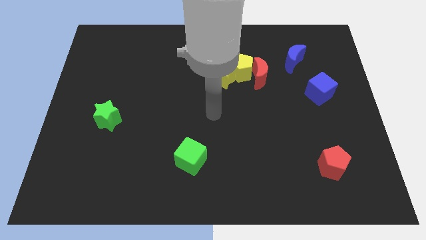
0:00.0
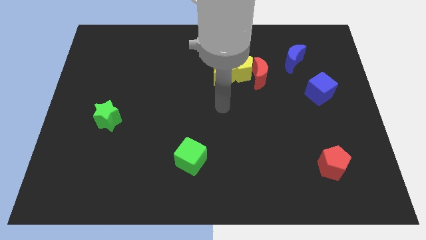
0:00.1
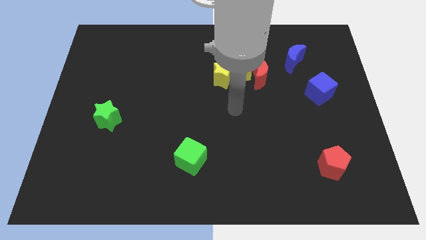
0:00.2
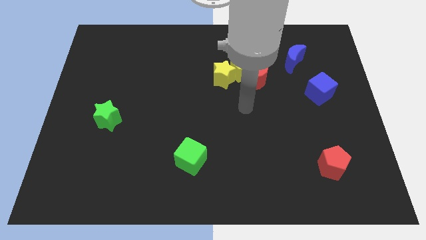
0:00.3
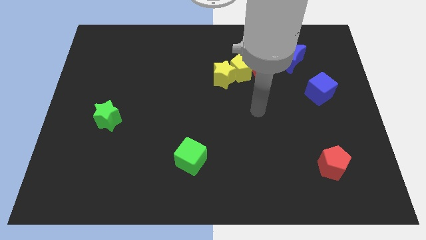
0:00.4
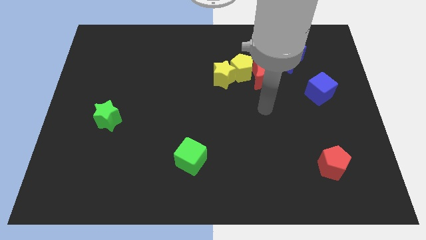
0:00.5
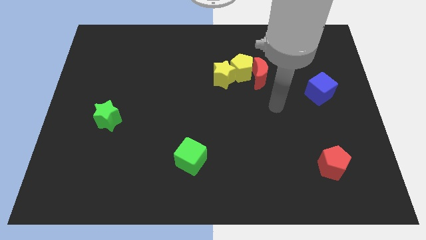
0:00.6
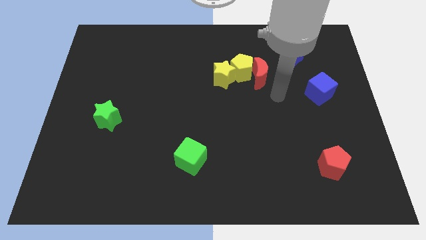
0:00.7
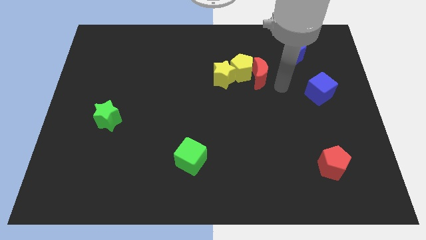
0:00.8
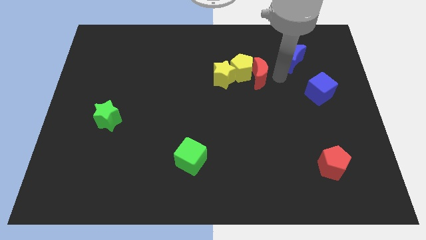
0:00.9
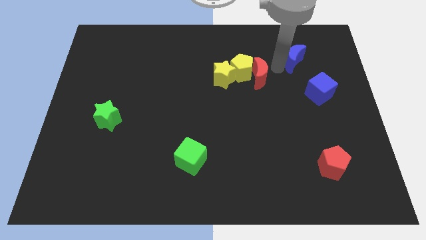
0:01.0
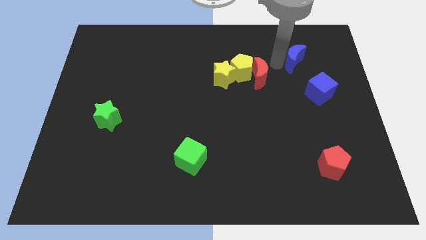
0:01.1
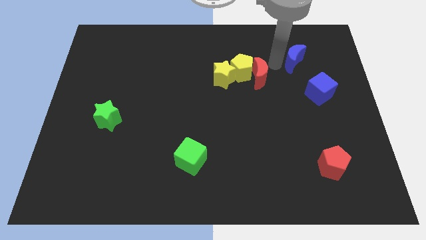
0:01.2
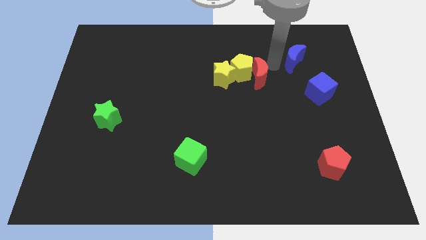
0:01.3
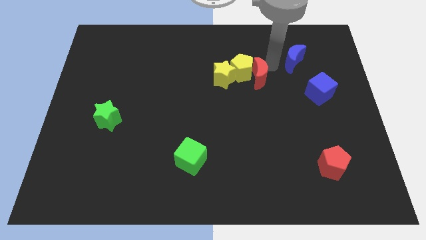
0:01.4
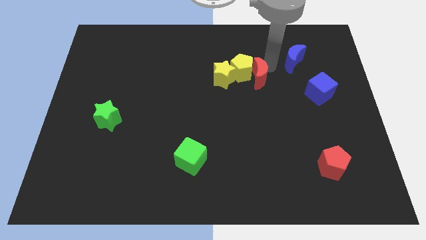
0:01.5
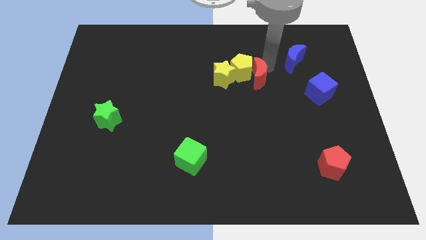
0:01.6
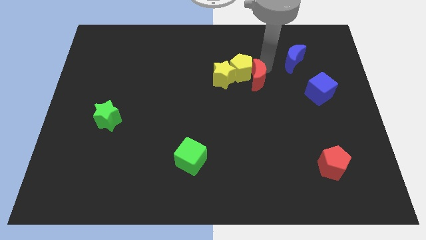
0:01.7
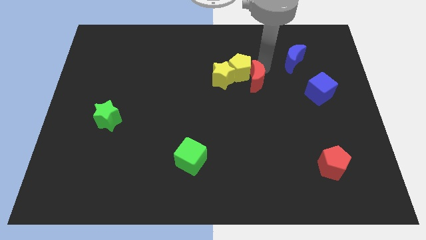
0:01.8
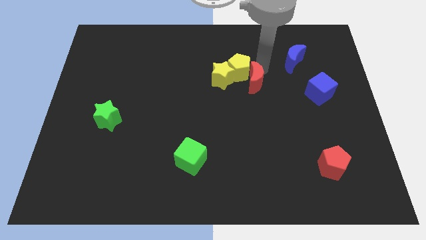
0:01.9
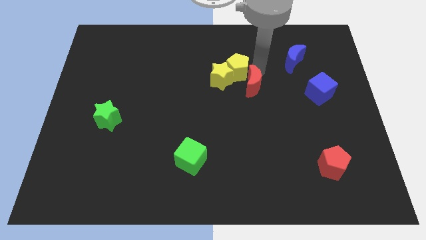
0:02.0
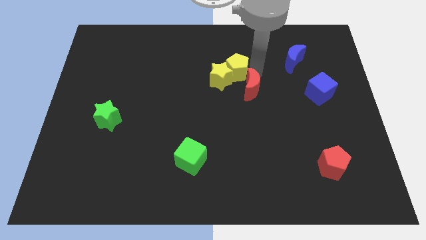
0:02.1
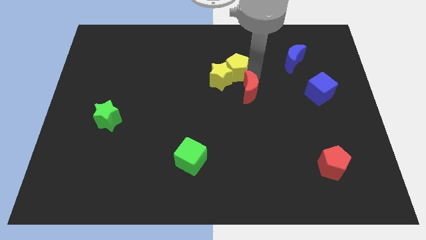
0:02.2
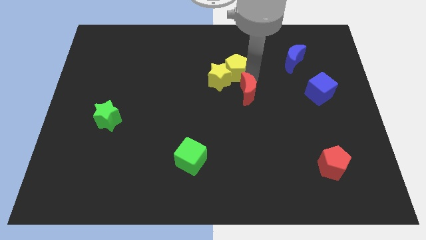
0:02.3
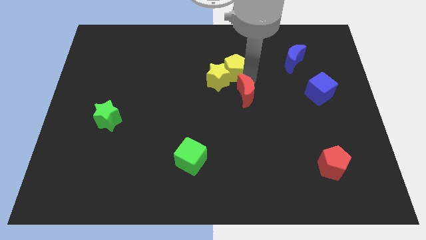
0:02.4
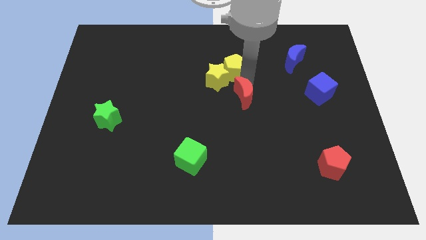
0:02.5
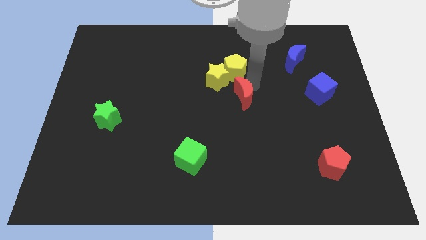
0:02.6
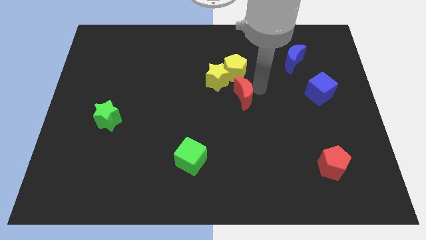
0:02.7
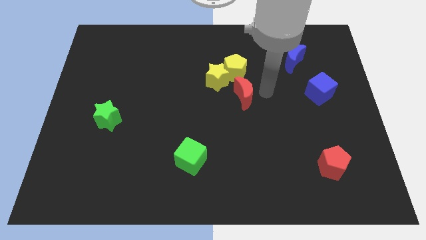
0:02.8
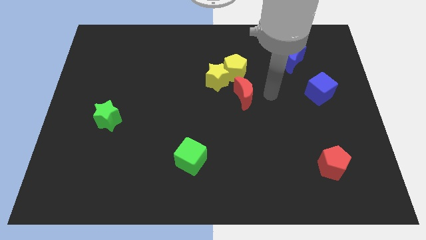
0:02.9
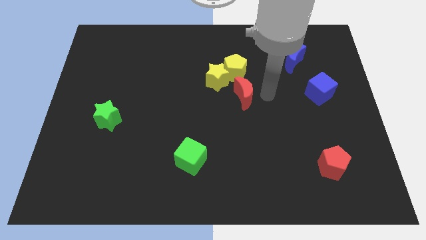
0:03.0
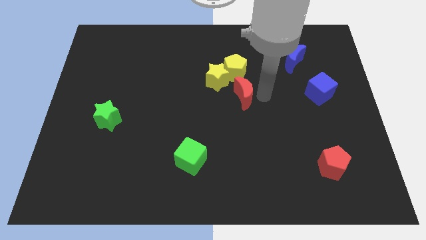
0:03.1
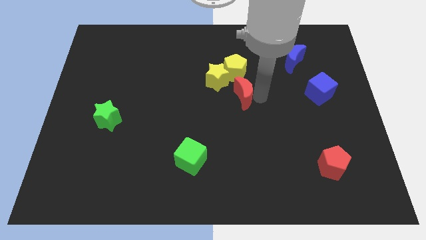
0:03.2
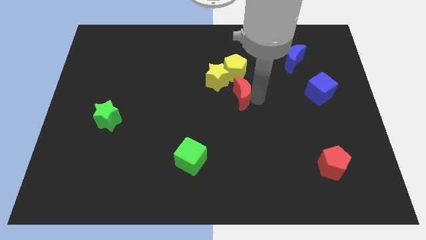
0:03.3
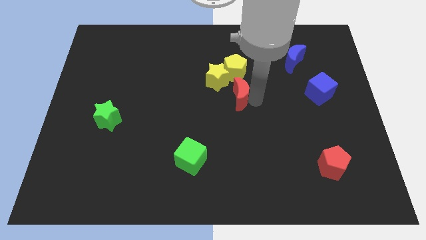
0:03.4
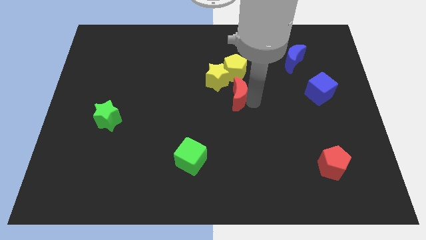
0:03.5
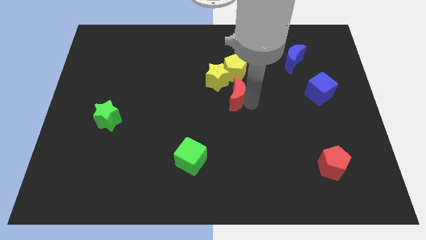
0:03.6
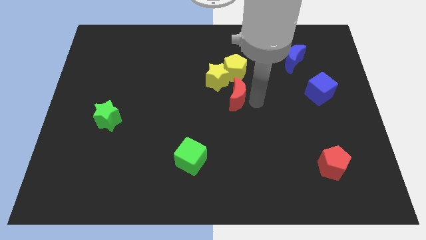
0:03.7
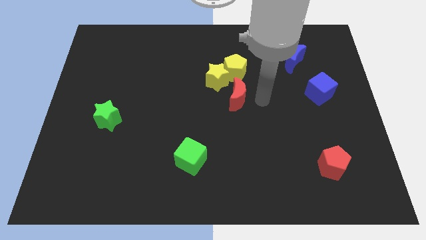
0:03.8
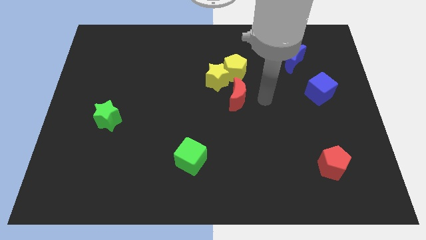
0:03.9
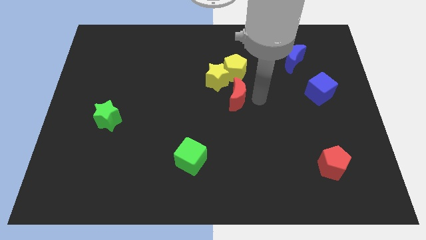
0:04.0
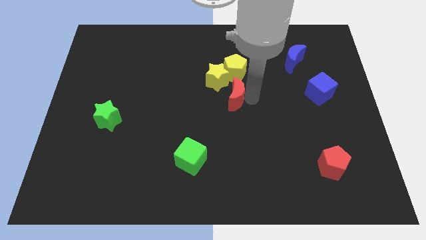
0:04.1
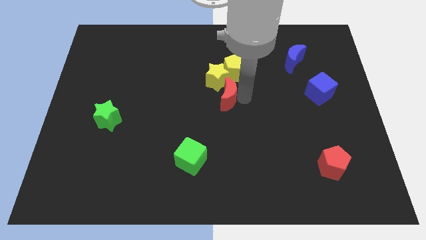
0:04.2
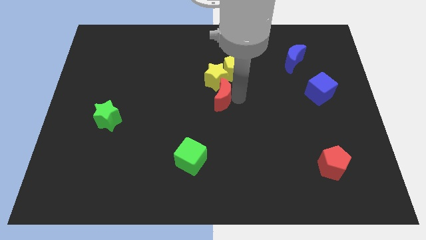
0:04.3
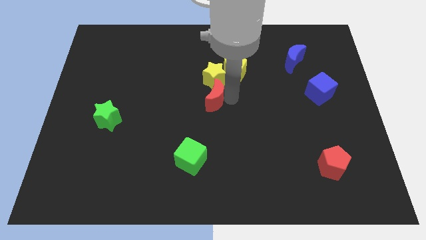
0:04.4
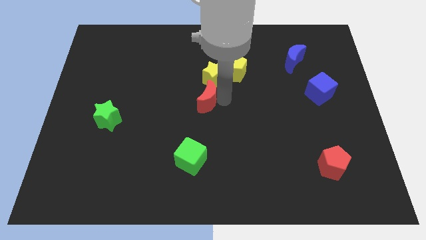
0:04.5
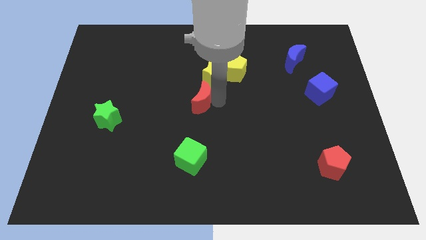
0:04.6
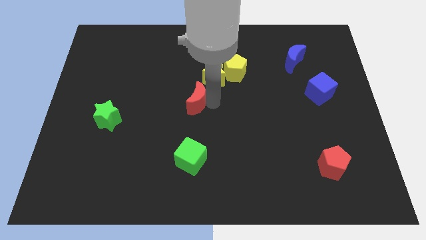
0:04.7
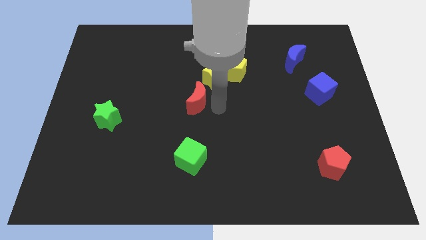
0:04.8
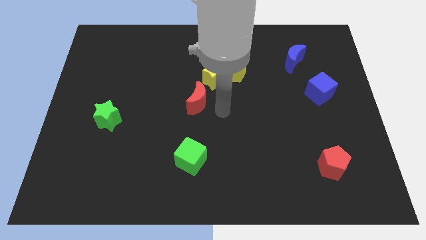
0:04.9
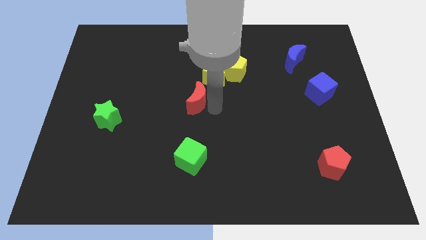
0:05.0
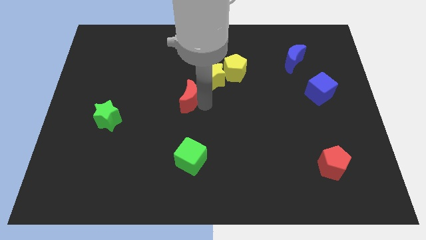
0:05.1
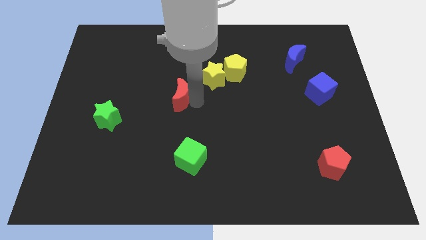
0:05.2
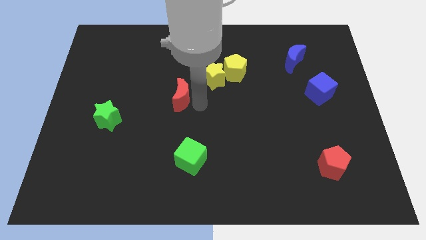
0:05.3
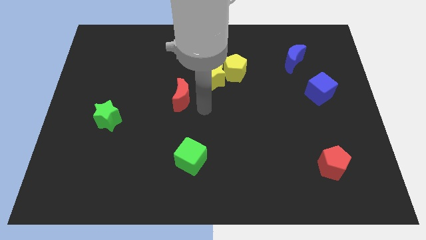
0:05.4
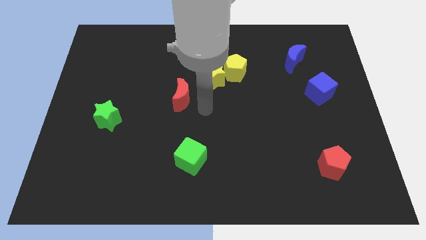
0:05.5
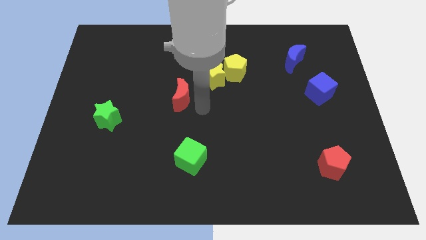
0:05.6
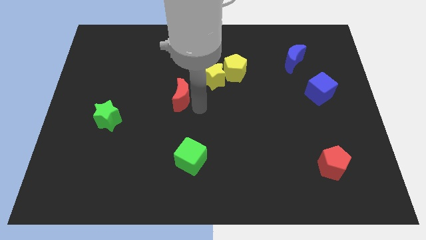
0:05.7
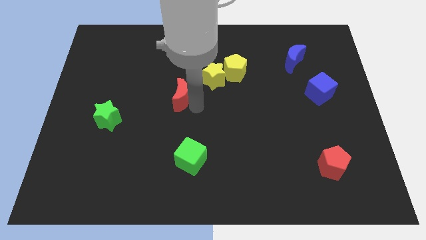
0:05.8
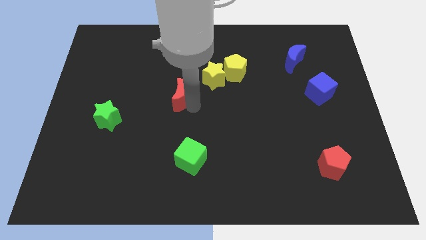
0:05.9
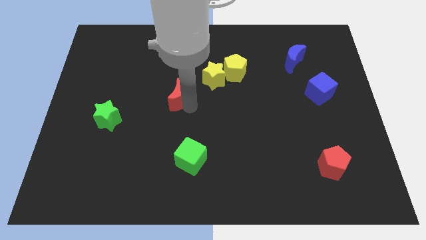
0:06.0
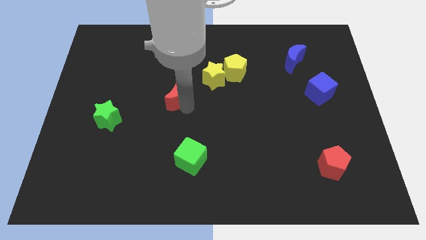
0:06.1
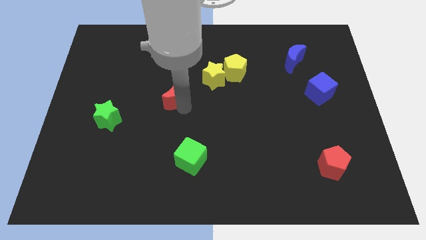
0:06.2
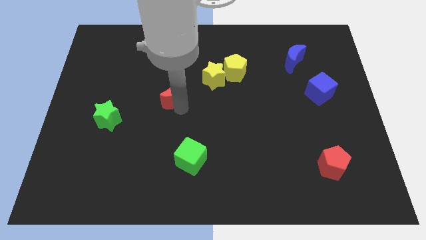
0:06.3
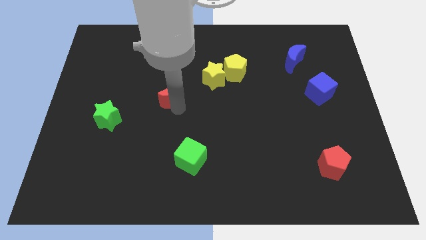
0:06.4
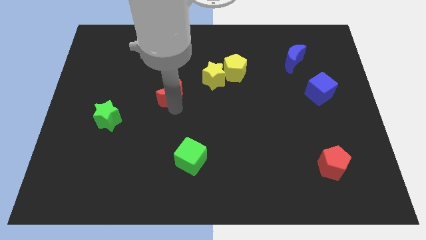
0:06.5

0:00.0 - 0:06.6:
move the red moon to the left

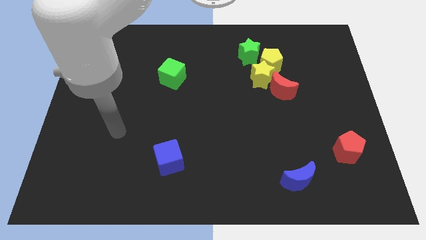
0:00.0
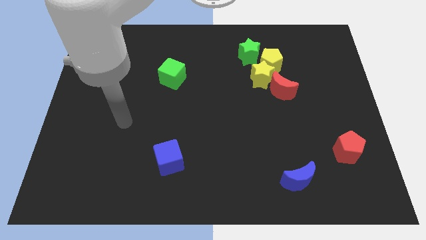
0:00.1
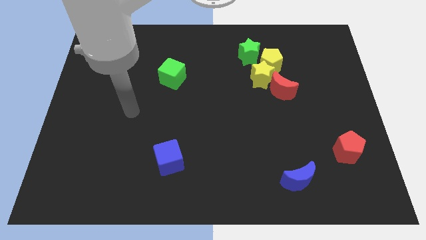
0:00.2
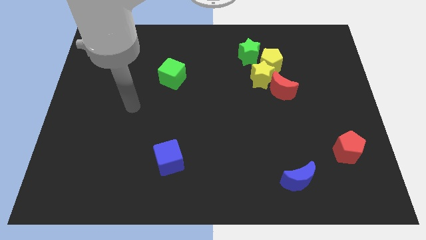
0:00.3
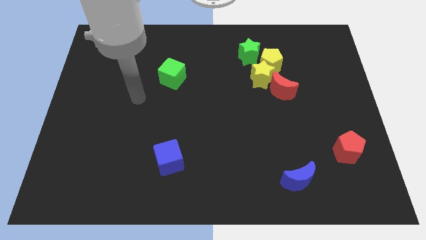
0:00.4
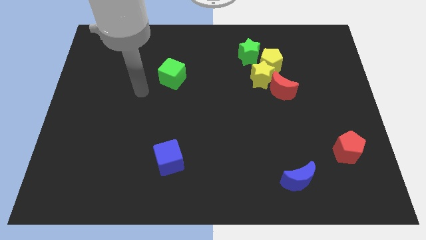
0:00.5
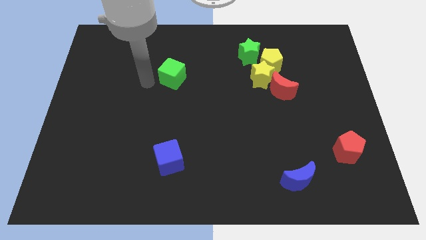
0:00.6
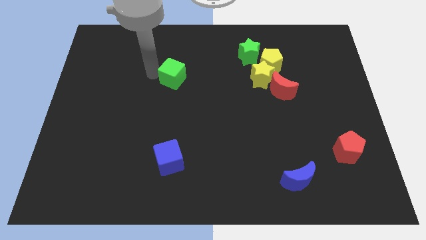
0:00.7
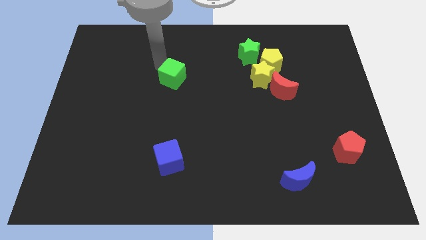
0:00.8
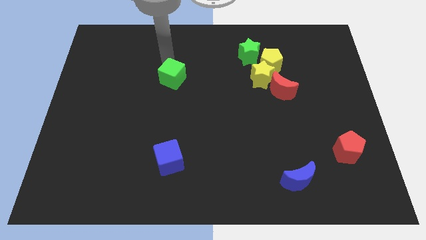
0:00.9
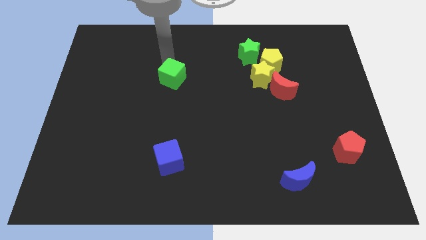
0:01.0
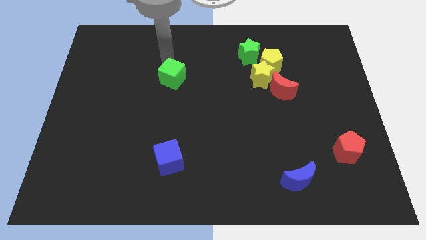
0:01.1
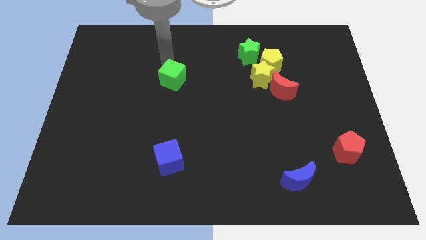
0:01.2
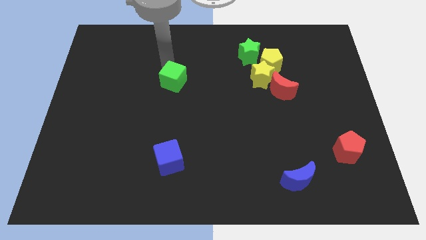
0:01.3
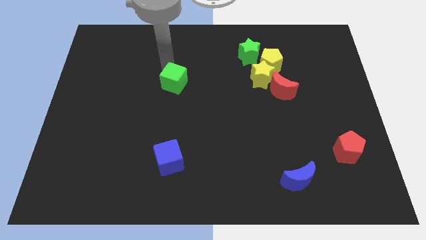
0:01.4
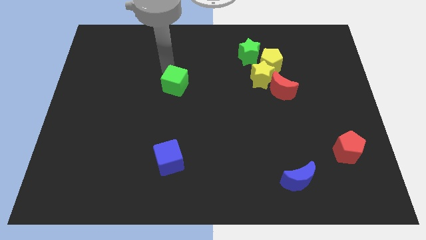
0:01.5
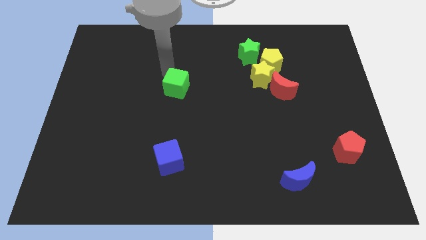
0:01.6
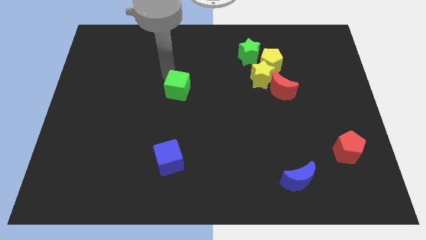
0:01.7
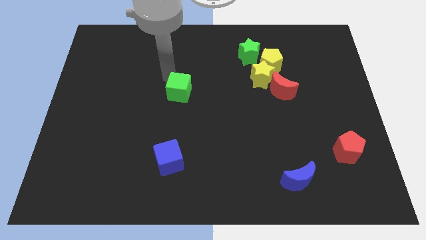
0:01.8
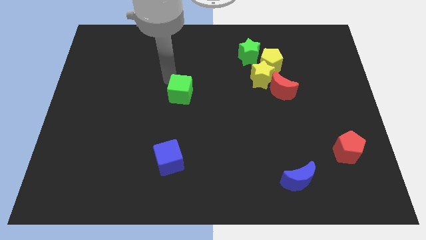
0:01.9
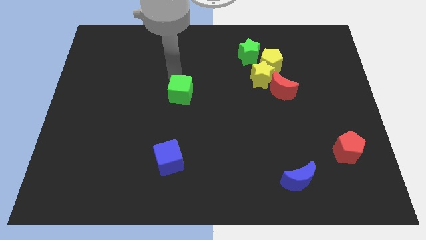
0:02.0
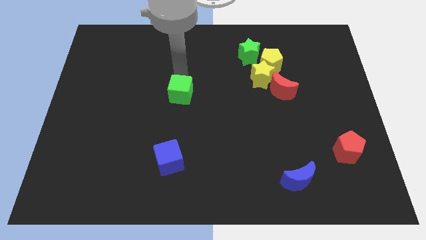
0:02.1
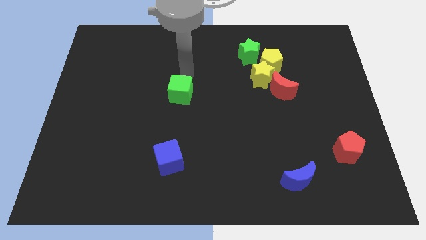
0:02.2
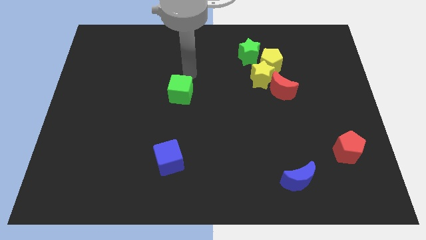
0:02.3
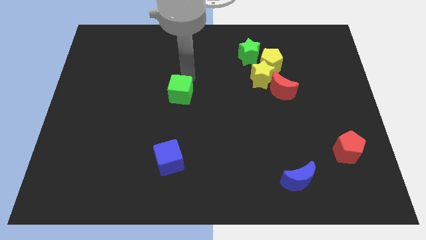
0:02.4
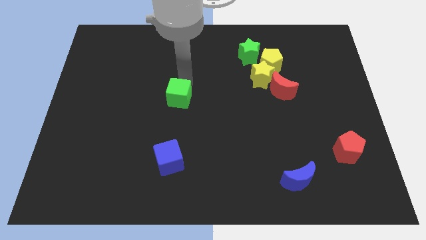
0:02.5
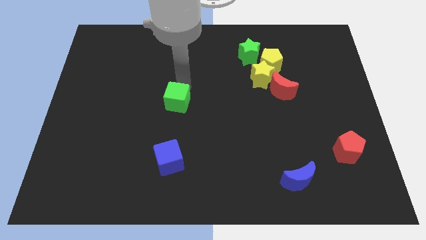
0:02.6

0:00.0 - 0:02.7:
push the green cube a little down
